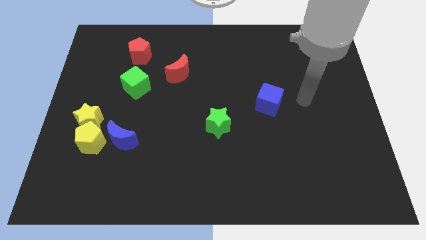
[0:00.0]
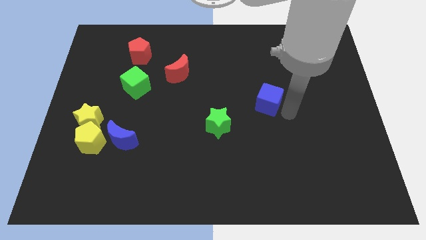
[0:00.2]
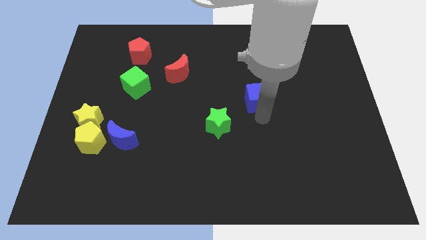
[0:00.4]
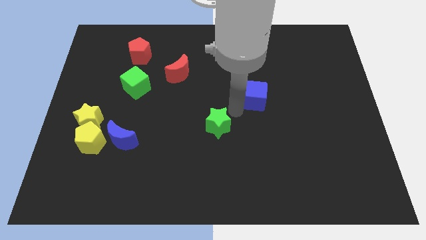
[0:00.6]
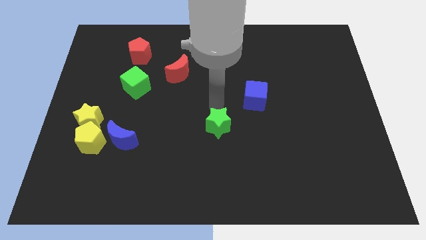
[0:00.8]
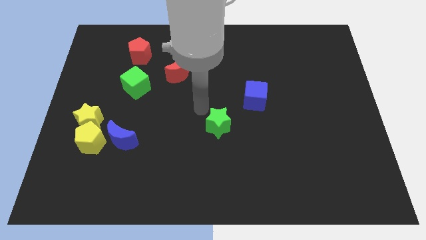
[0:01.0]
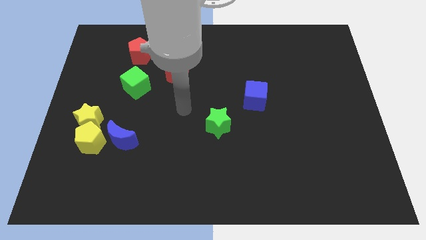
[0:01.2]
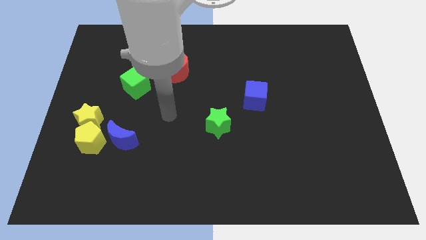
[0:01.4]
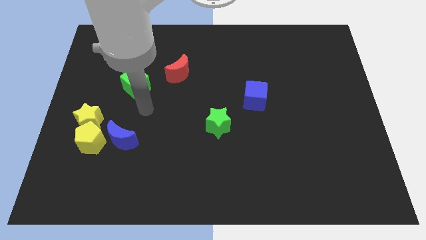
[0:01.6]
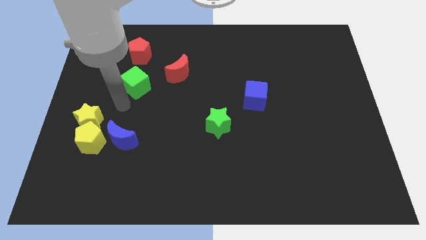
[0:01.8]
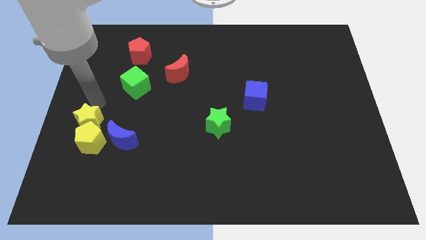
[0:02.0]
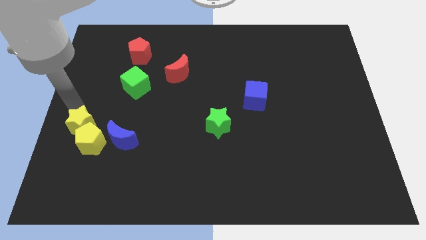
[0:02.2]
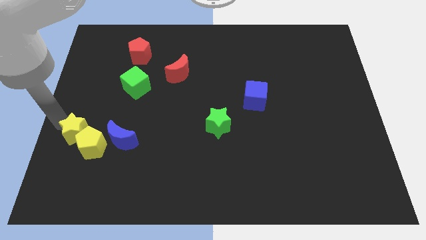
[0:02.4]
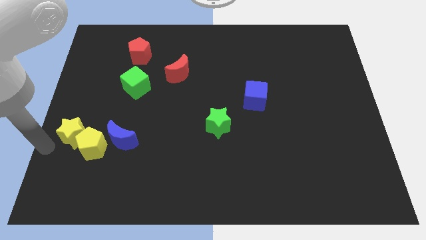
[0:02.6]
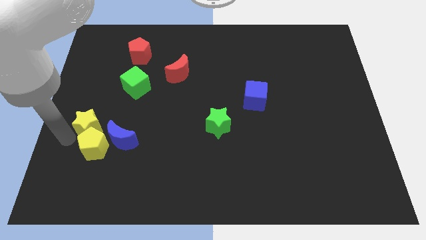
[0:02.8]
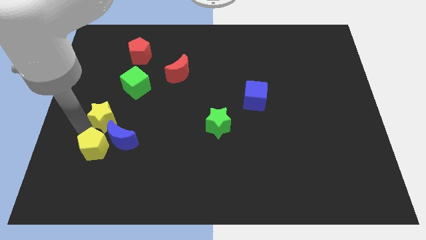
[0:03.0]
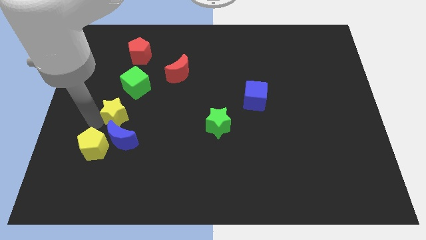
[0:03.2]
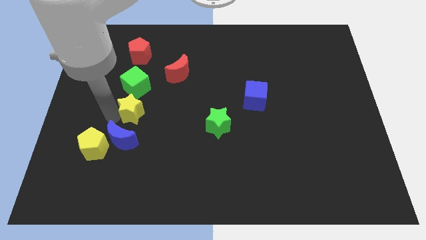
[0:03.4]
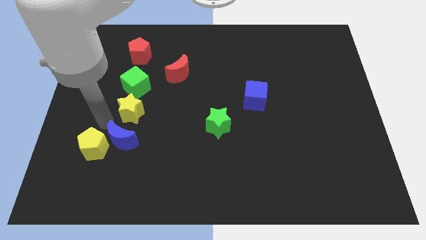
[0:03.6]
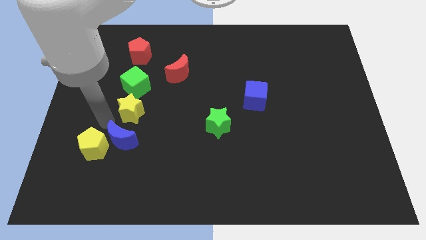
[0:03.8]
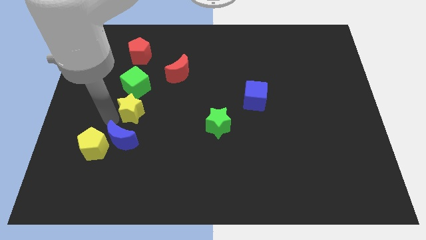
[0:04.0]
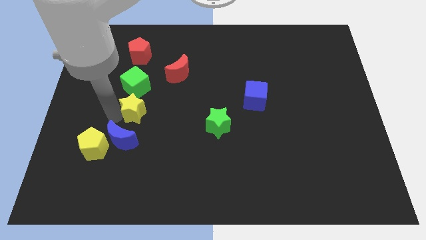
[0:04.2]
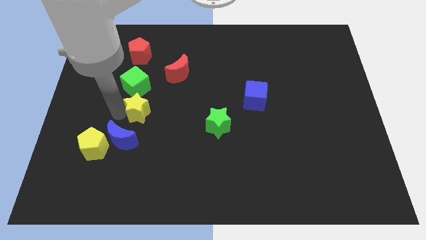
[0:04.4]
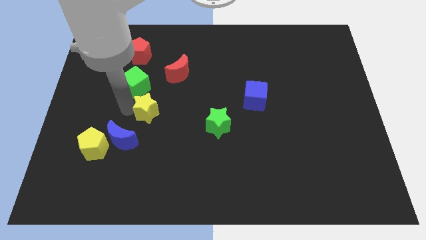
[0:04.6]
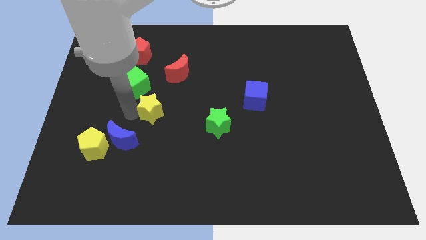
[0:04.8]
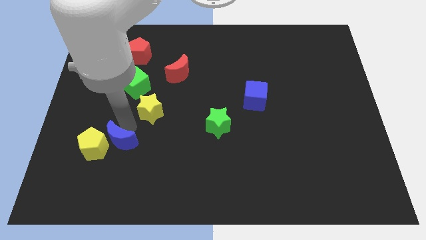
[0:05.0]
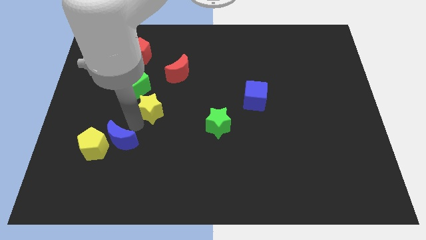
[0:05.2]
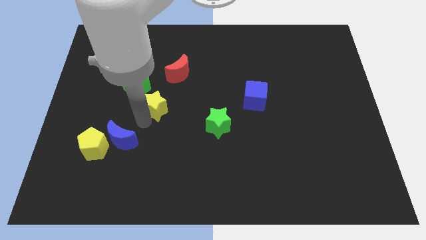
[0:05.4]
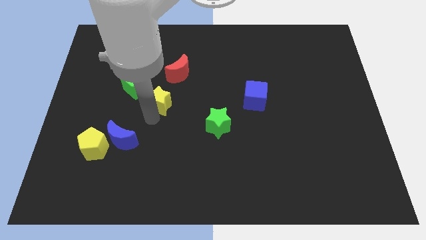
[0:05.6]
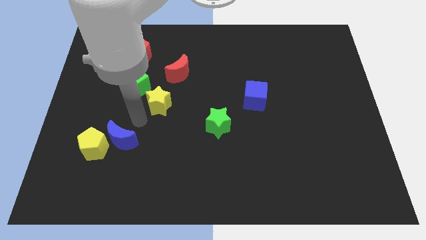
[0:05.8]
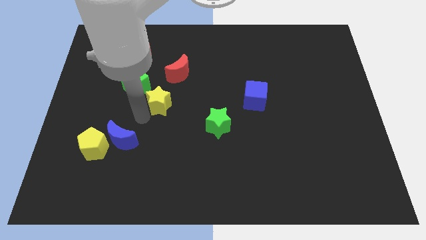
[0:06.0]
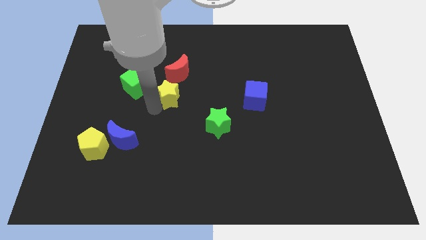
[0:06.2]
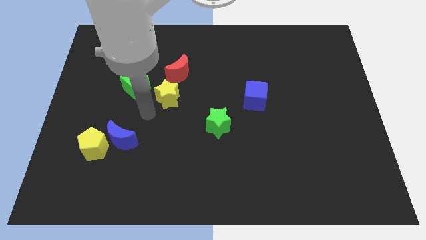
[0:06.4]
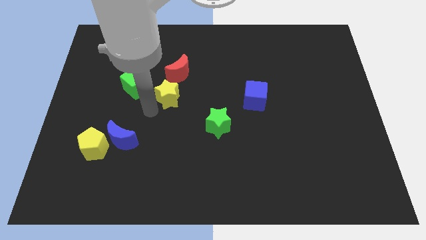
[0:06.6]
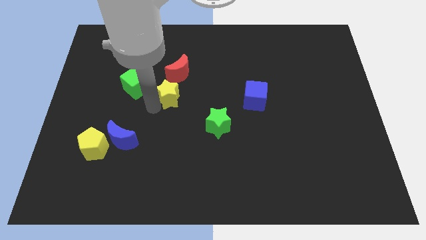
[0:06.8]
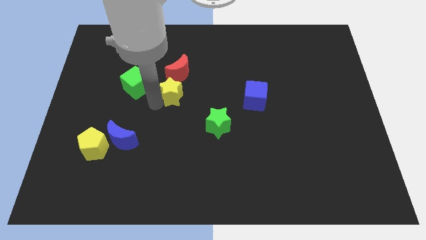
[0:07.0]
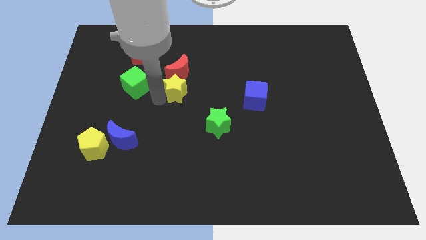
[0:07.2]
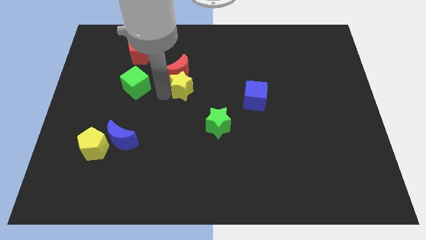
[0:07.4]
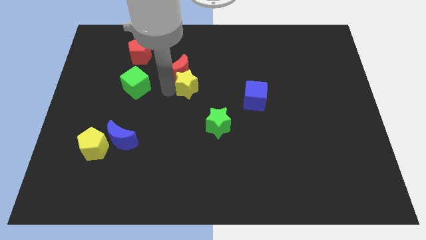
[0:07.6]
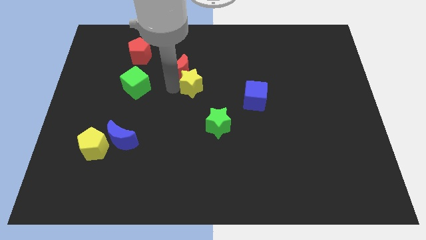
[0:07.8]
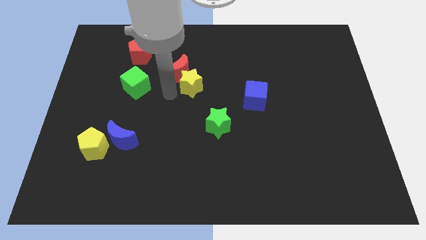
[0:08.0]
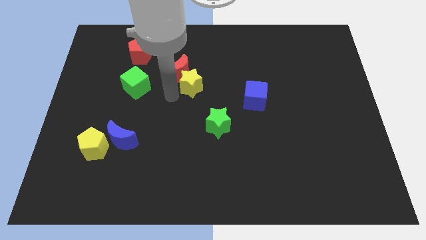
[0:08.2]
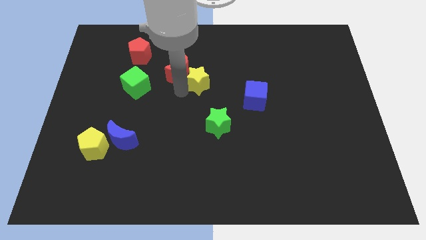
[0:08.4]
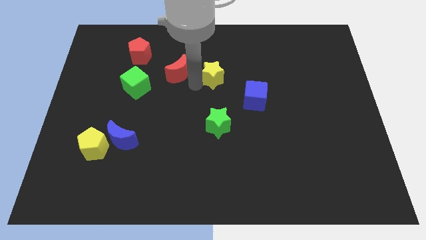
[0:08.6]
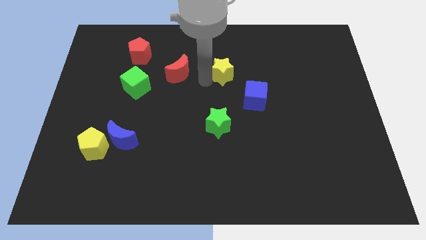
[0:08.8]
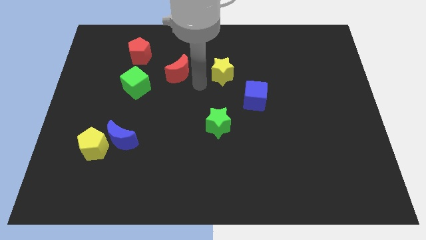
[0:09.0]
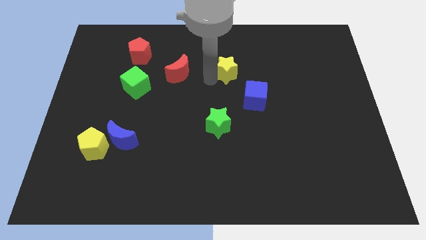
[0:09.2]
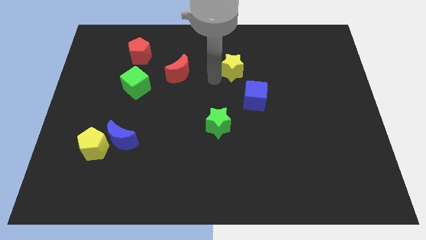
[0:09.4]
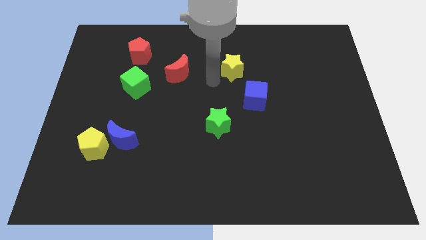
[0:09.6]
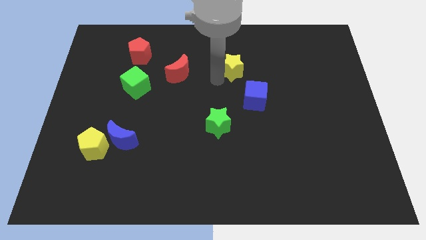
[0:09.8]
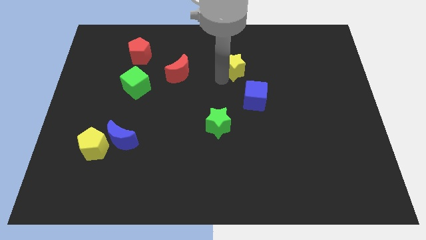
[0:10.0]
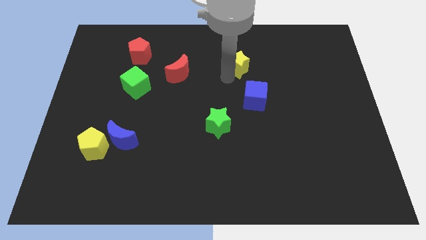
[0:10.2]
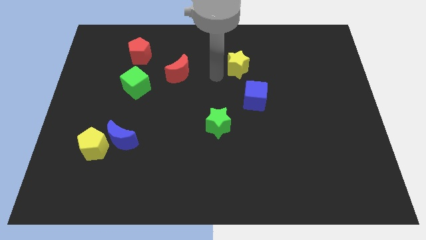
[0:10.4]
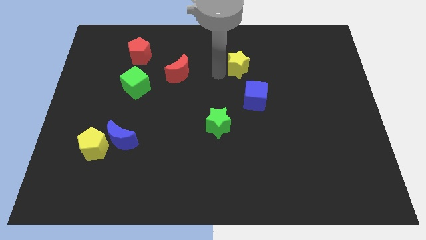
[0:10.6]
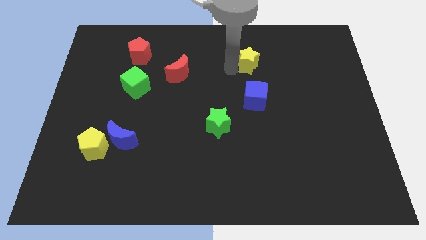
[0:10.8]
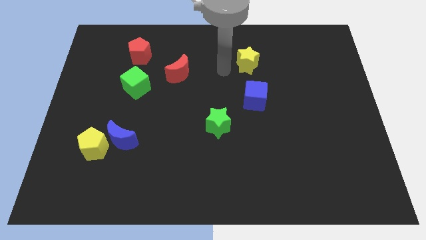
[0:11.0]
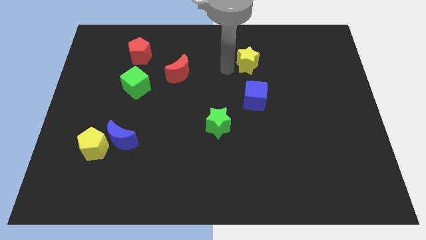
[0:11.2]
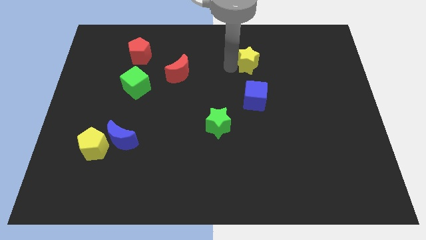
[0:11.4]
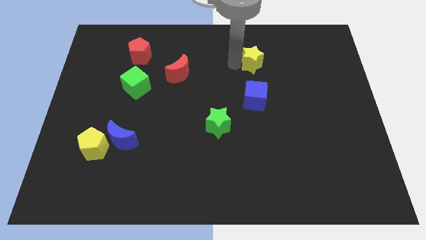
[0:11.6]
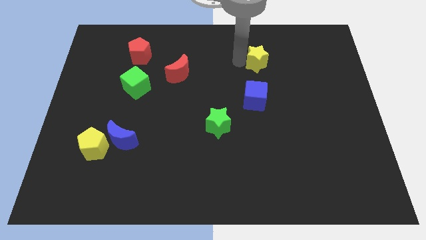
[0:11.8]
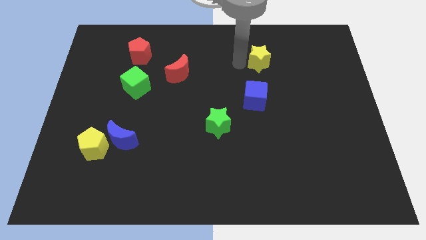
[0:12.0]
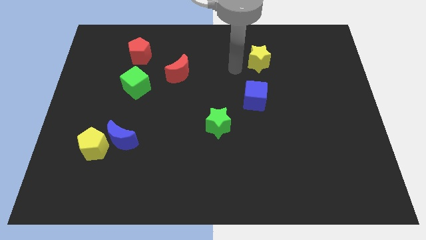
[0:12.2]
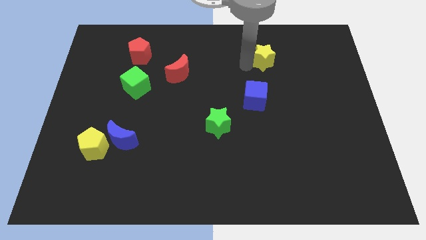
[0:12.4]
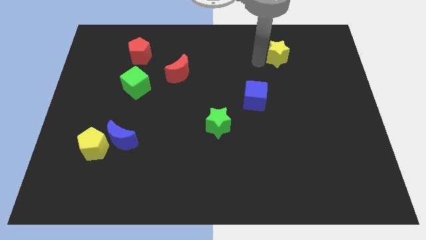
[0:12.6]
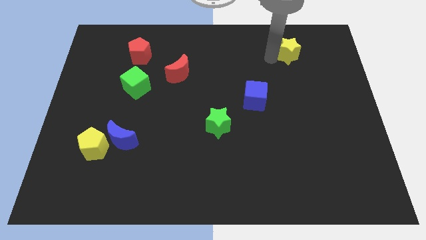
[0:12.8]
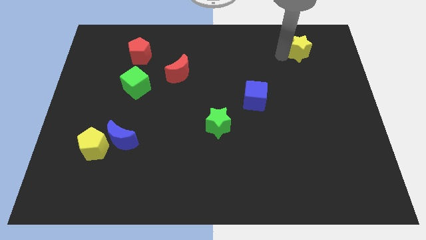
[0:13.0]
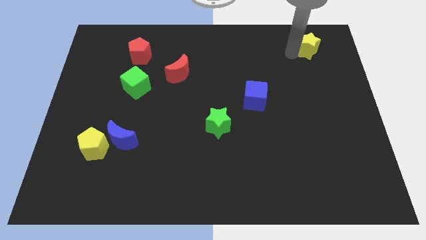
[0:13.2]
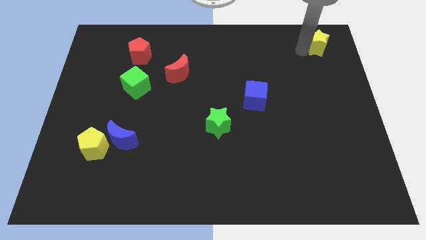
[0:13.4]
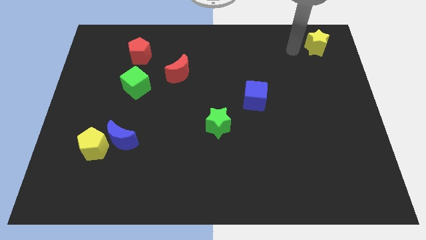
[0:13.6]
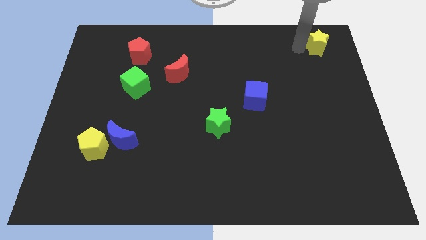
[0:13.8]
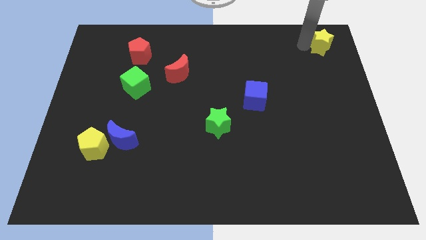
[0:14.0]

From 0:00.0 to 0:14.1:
move the yellow star to the top right corner
